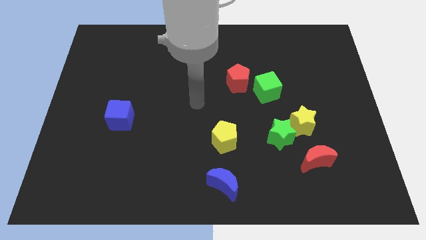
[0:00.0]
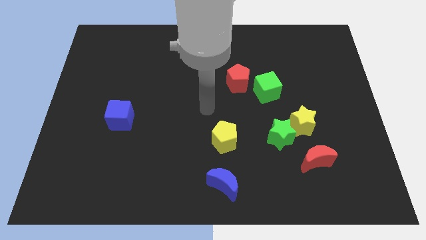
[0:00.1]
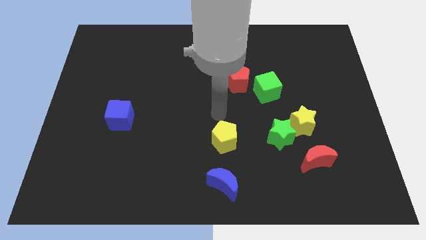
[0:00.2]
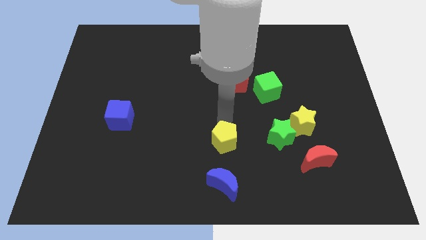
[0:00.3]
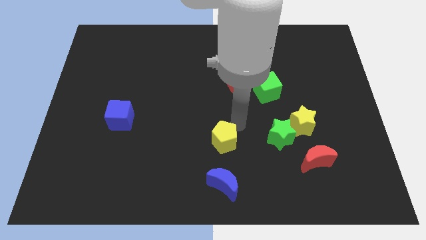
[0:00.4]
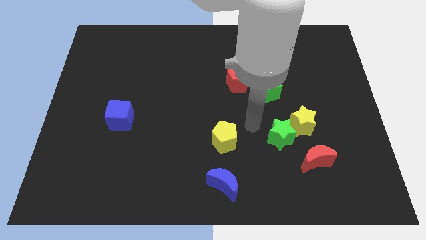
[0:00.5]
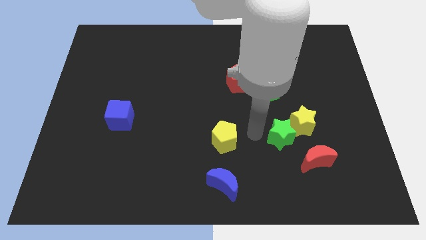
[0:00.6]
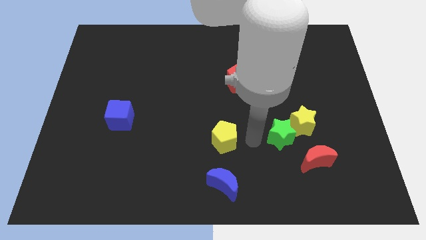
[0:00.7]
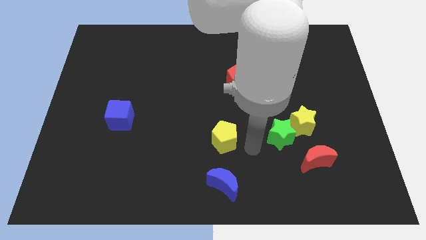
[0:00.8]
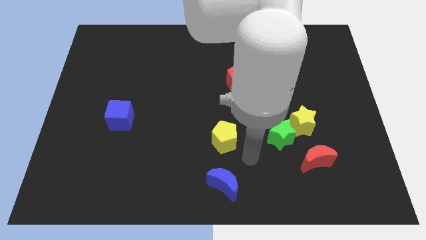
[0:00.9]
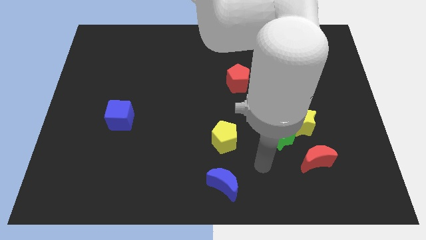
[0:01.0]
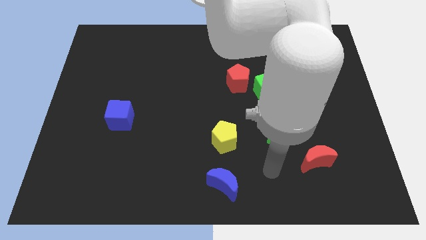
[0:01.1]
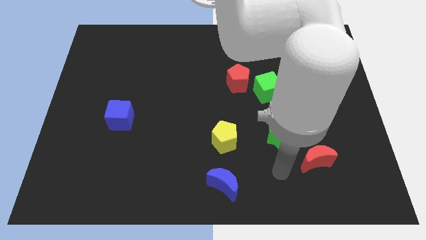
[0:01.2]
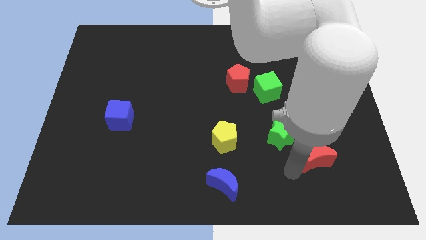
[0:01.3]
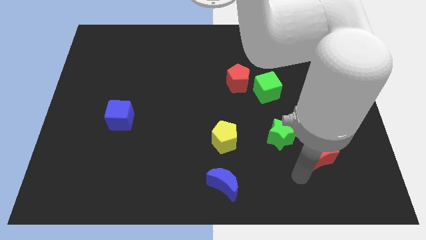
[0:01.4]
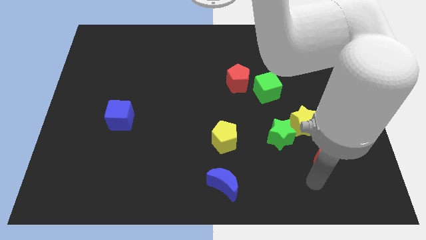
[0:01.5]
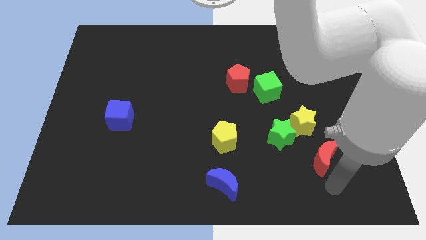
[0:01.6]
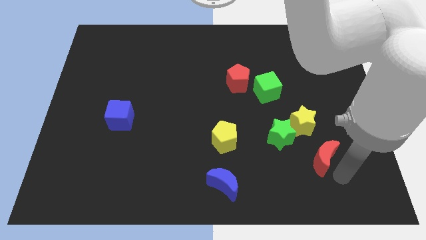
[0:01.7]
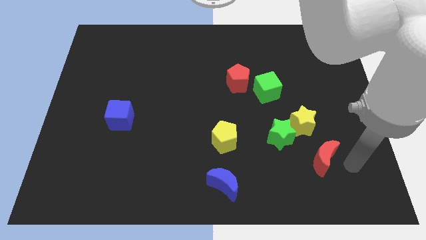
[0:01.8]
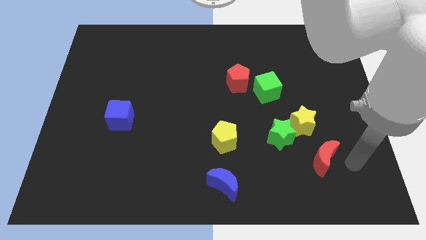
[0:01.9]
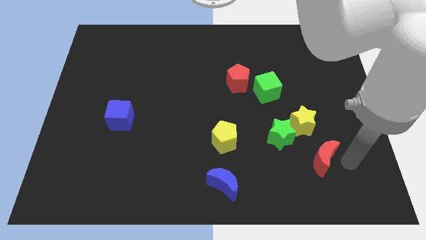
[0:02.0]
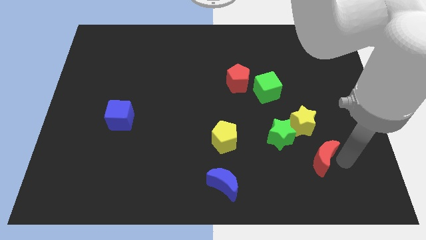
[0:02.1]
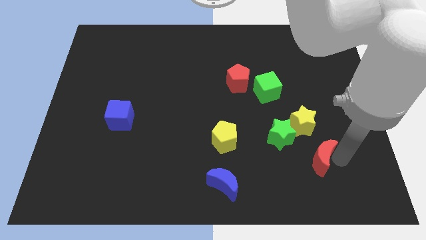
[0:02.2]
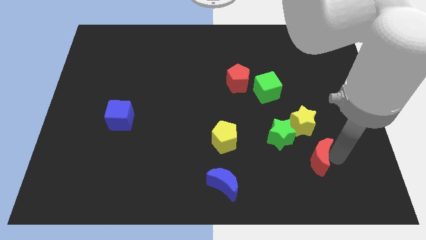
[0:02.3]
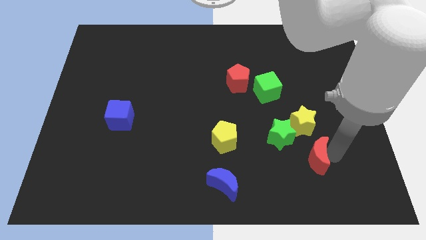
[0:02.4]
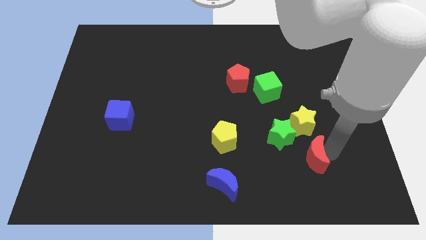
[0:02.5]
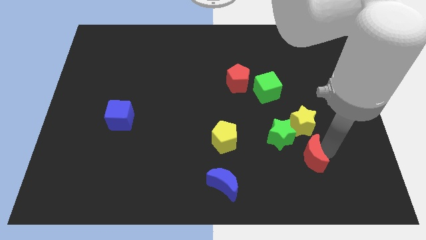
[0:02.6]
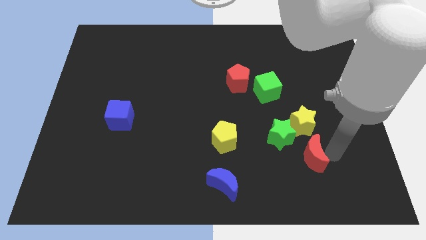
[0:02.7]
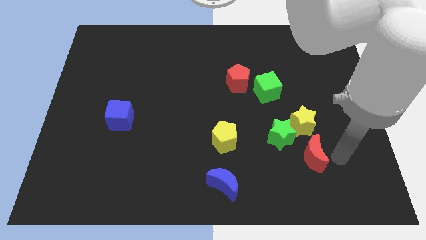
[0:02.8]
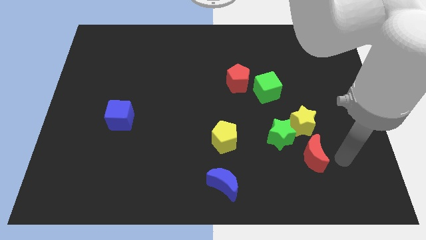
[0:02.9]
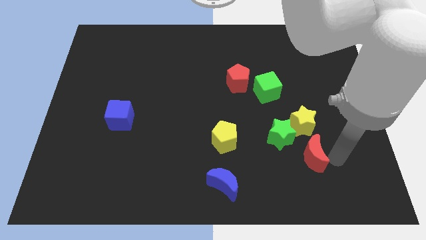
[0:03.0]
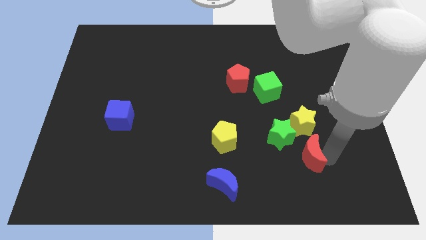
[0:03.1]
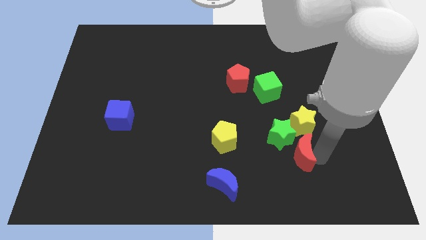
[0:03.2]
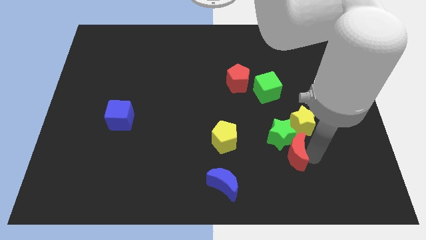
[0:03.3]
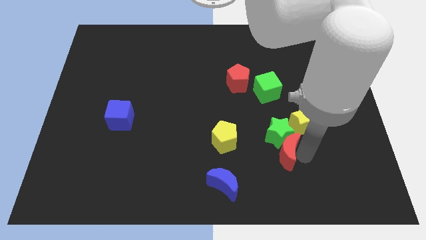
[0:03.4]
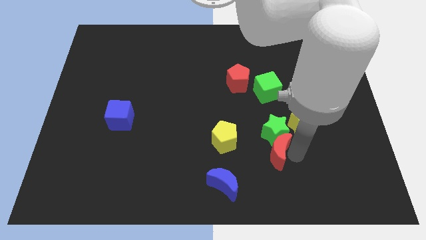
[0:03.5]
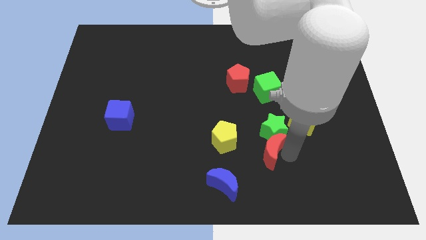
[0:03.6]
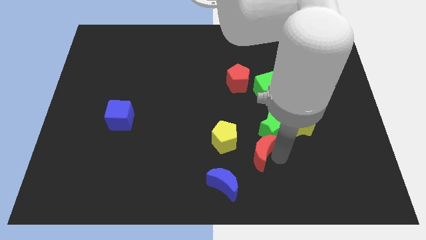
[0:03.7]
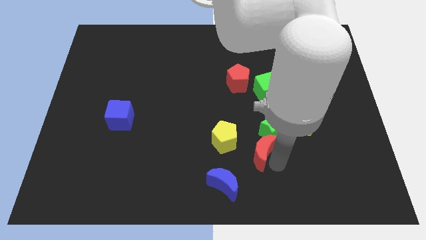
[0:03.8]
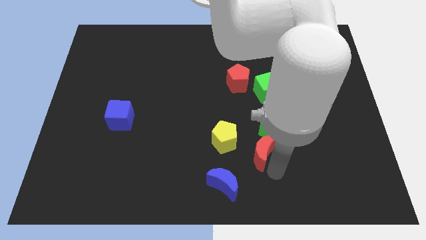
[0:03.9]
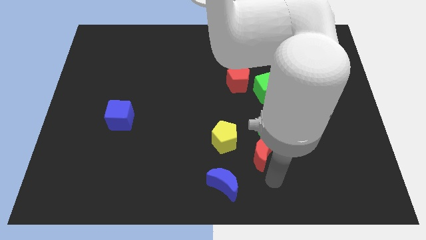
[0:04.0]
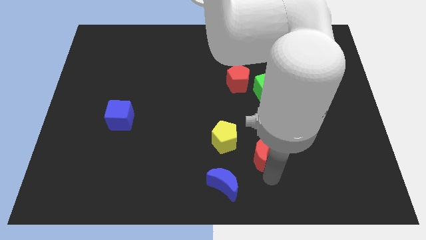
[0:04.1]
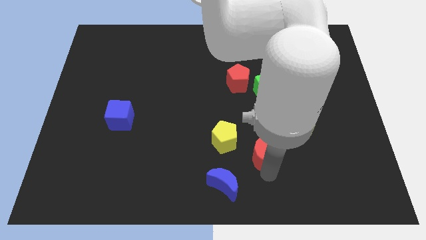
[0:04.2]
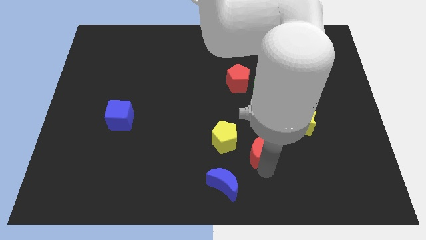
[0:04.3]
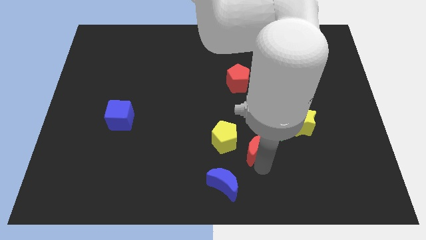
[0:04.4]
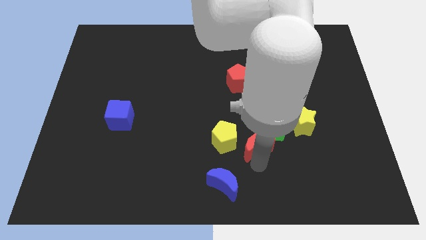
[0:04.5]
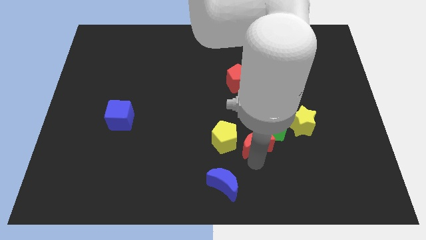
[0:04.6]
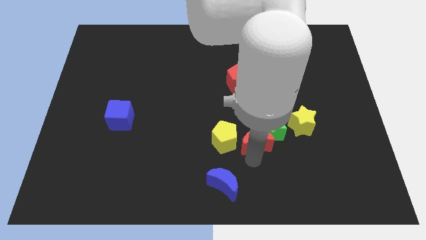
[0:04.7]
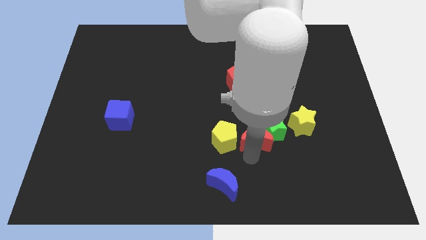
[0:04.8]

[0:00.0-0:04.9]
slide the red moon to the top right of the yellow pentagon

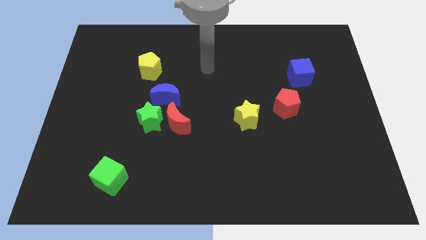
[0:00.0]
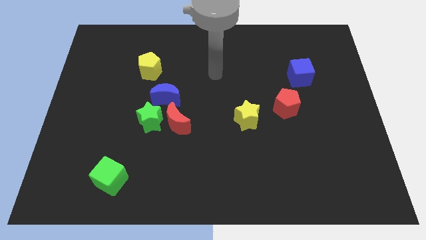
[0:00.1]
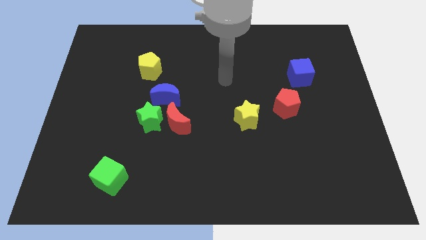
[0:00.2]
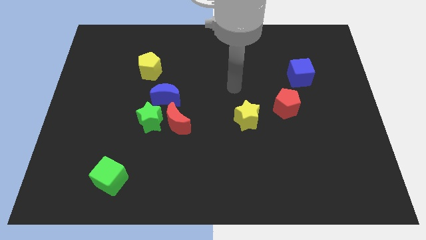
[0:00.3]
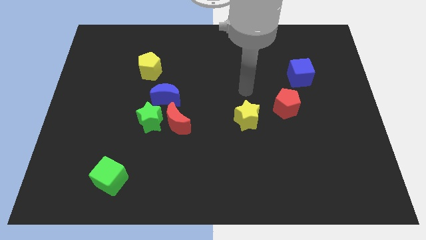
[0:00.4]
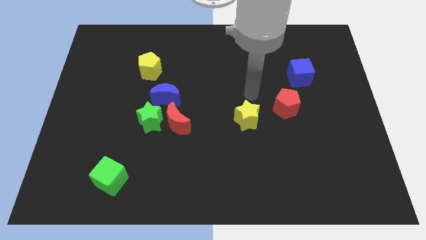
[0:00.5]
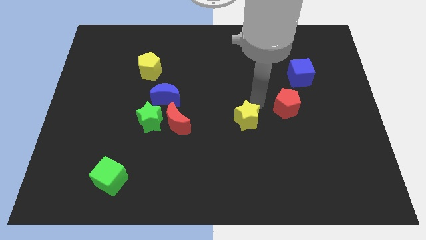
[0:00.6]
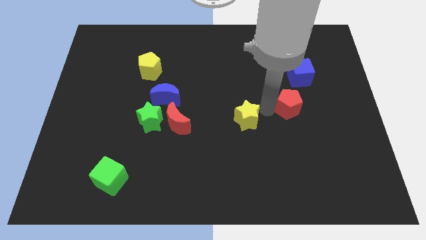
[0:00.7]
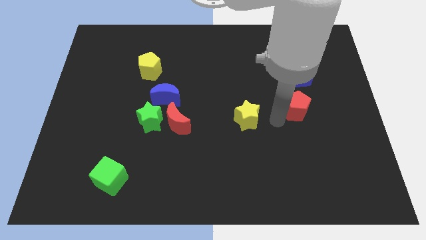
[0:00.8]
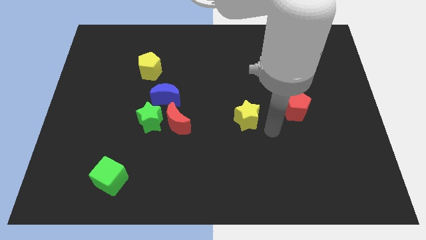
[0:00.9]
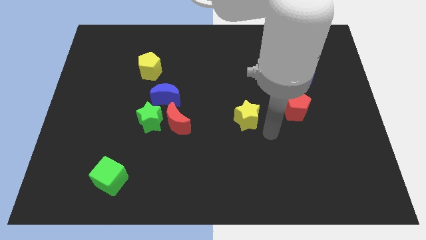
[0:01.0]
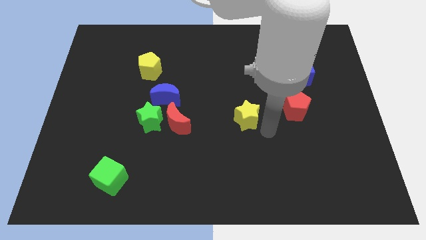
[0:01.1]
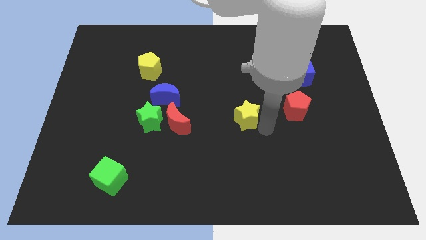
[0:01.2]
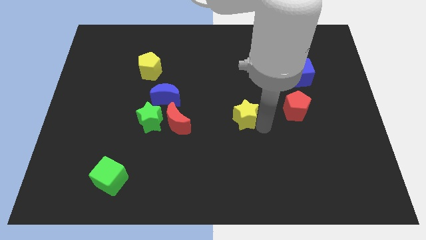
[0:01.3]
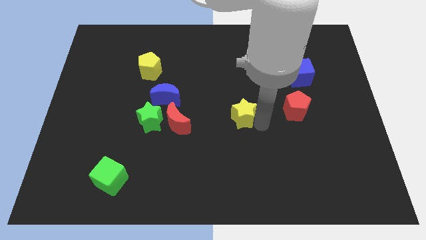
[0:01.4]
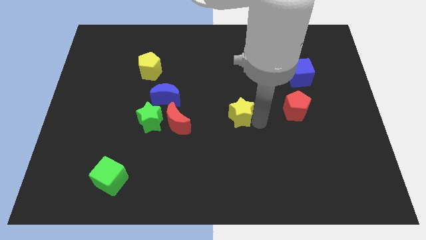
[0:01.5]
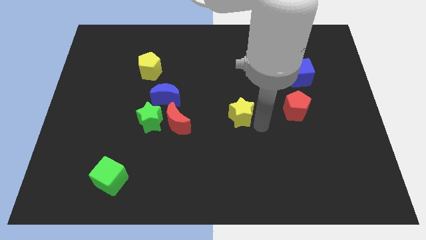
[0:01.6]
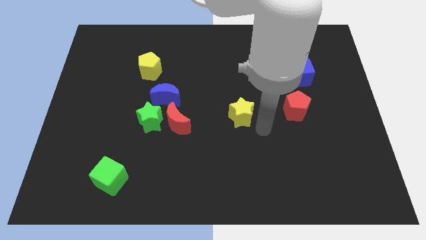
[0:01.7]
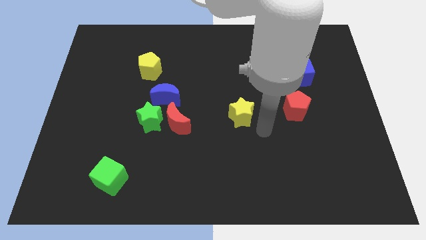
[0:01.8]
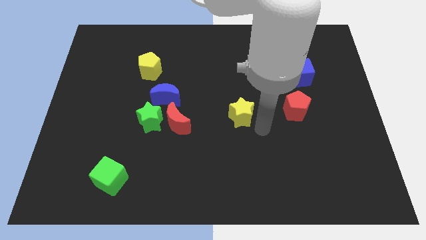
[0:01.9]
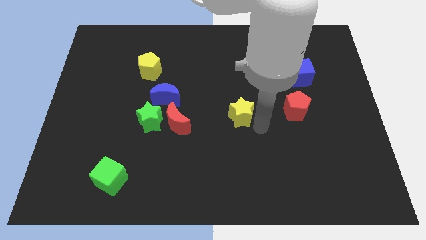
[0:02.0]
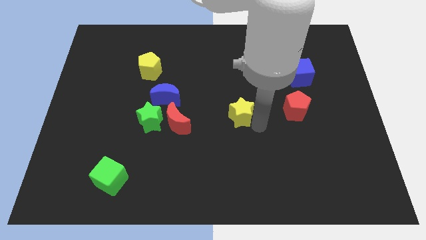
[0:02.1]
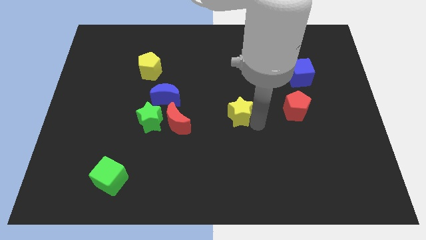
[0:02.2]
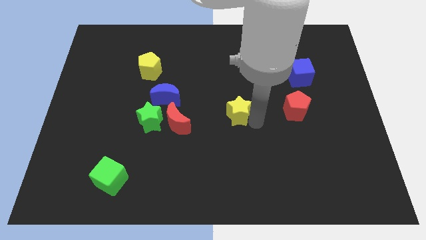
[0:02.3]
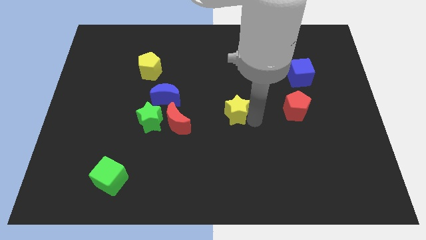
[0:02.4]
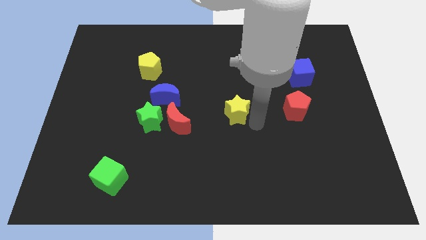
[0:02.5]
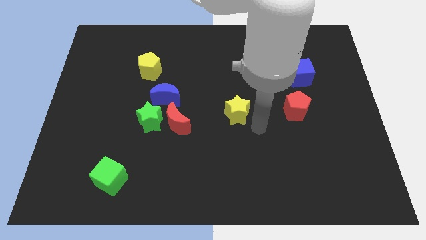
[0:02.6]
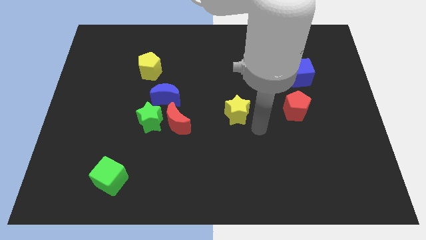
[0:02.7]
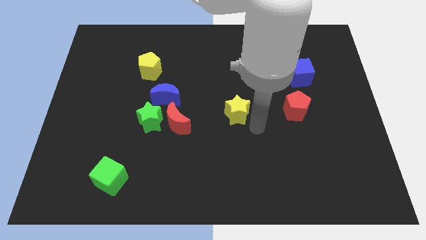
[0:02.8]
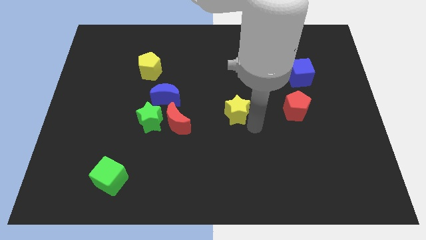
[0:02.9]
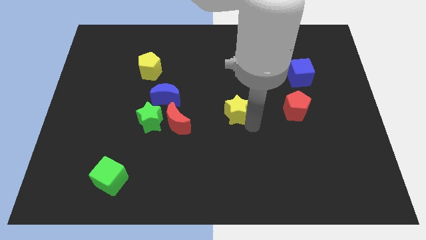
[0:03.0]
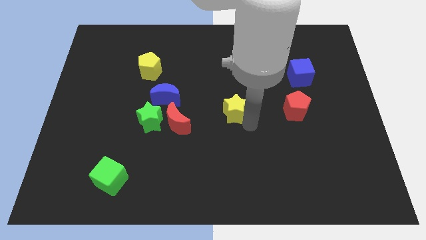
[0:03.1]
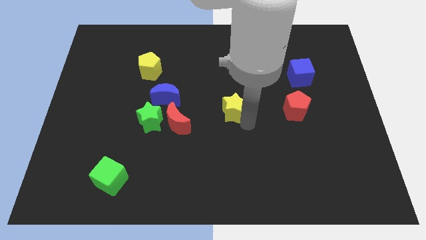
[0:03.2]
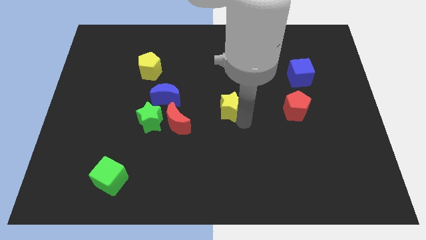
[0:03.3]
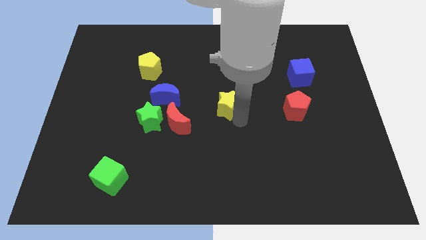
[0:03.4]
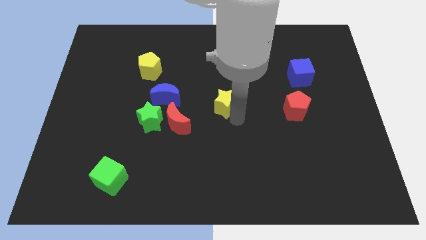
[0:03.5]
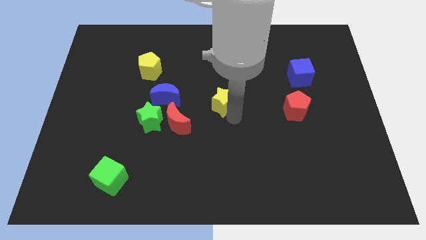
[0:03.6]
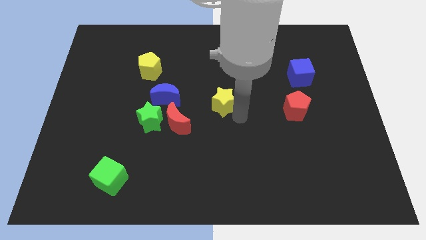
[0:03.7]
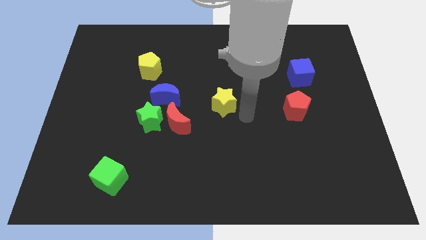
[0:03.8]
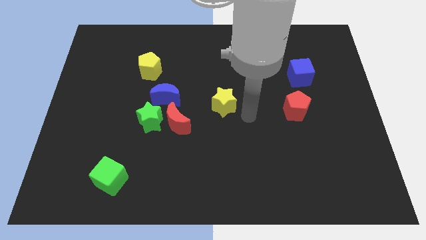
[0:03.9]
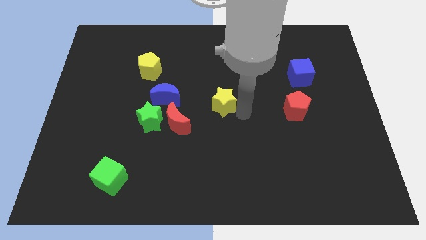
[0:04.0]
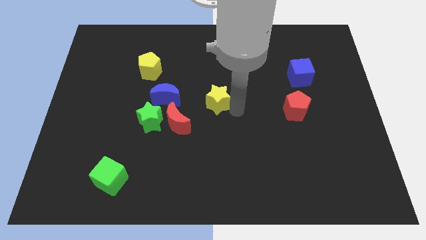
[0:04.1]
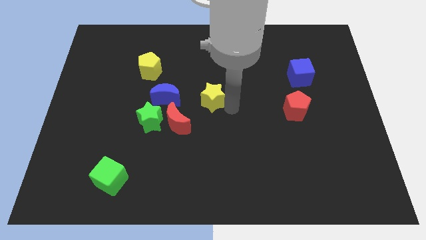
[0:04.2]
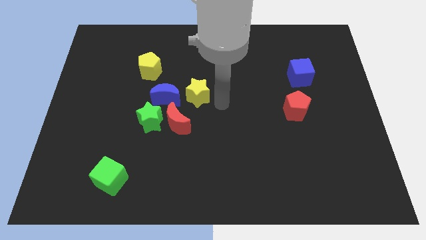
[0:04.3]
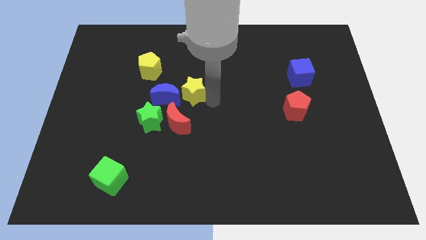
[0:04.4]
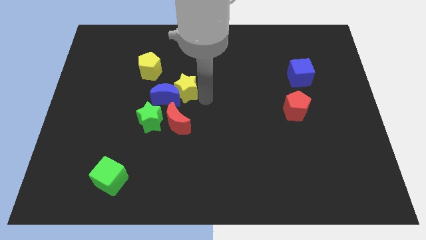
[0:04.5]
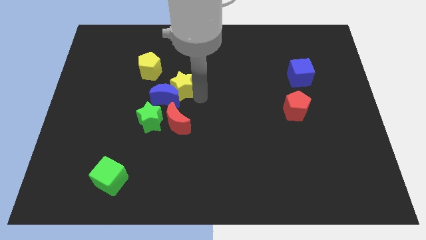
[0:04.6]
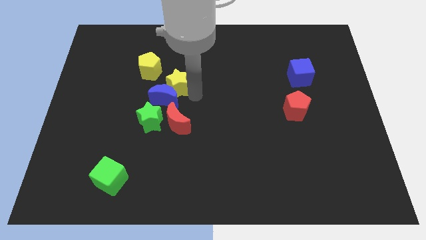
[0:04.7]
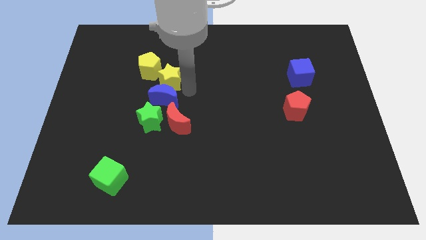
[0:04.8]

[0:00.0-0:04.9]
slide the yellow star to the top left side of the blue moon
